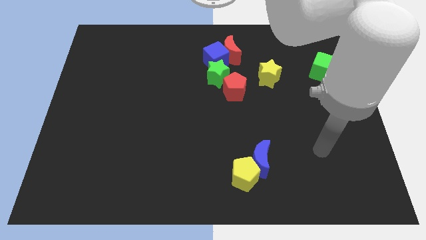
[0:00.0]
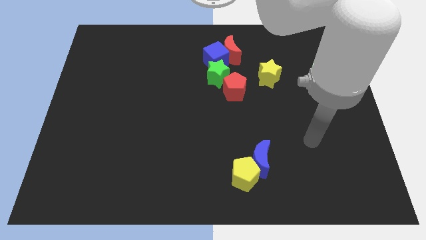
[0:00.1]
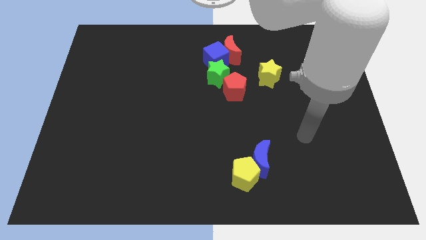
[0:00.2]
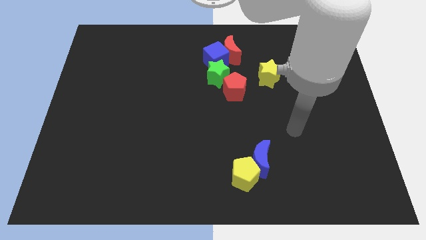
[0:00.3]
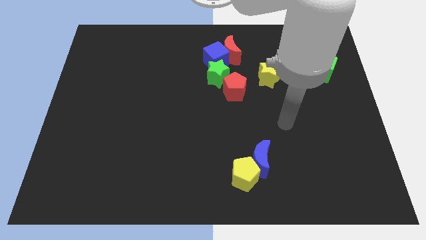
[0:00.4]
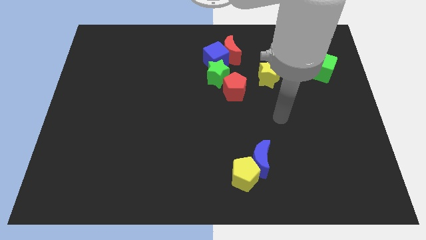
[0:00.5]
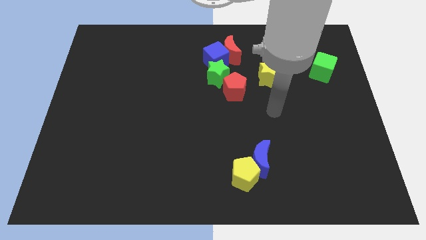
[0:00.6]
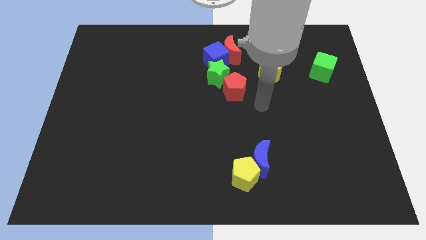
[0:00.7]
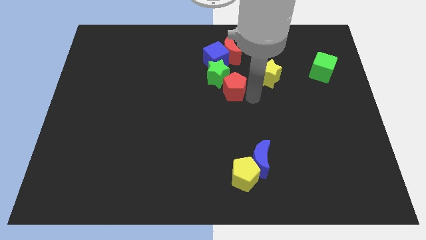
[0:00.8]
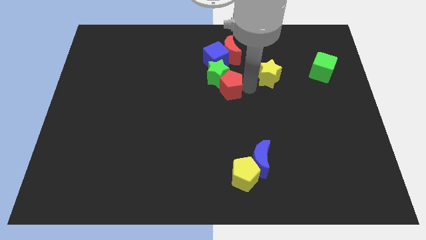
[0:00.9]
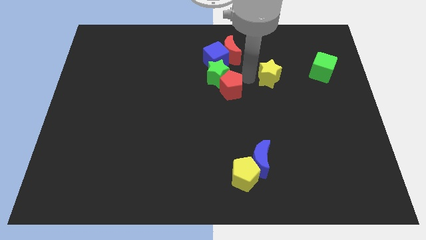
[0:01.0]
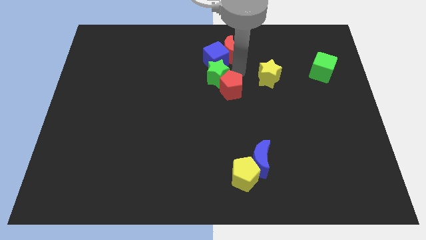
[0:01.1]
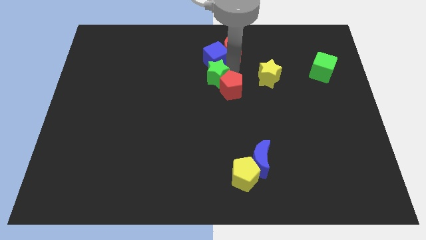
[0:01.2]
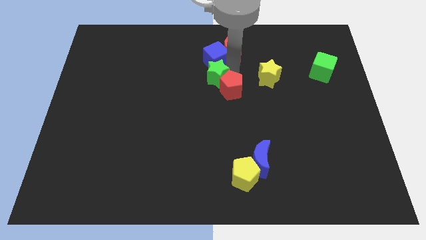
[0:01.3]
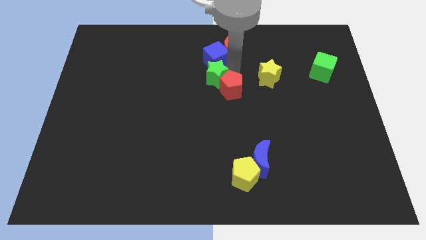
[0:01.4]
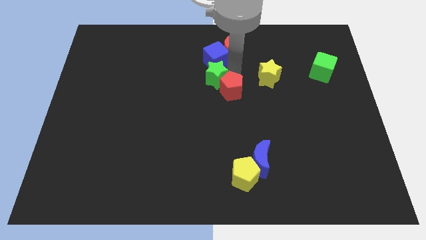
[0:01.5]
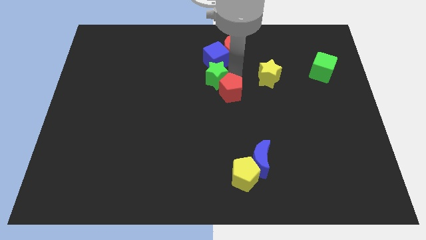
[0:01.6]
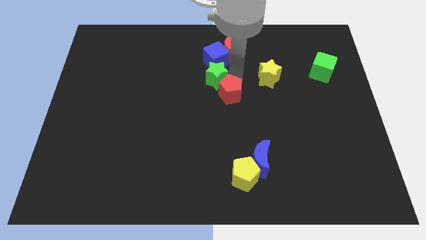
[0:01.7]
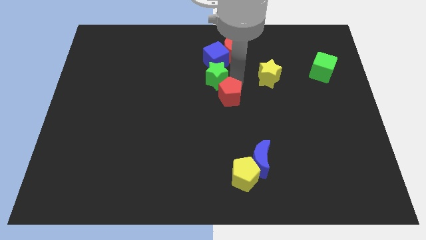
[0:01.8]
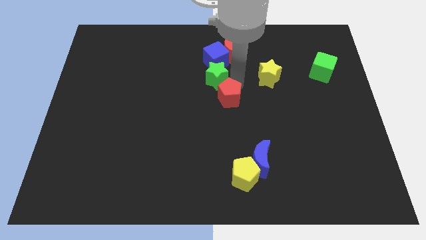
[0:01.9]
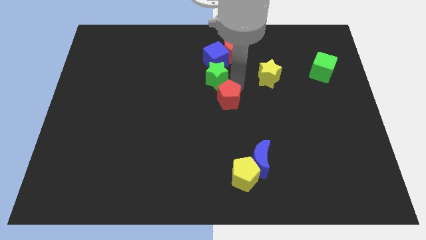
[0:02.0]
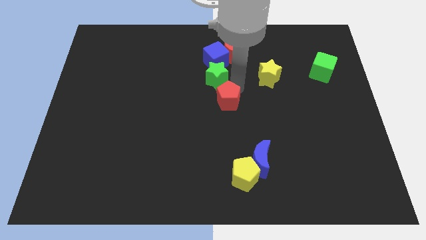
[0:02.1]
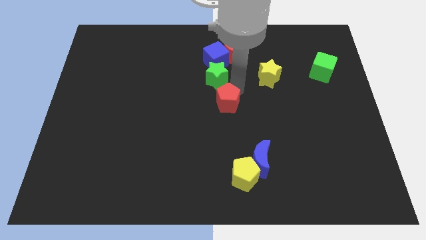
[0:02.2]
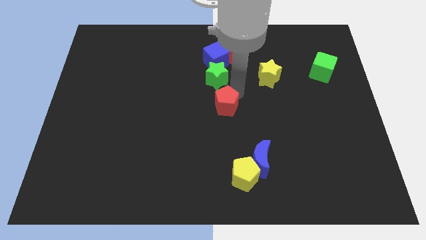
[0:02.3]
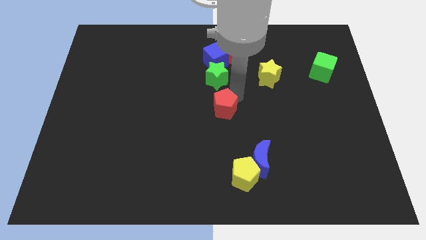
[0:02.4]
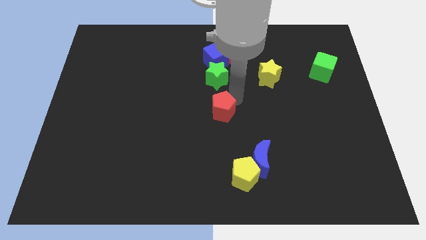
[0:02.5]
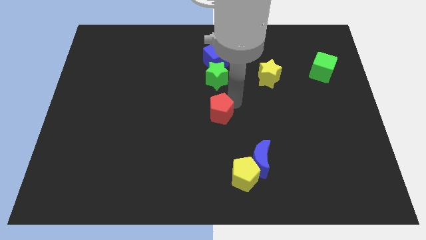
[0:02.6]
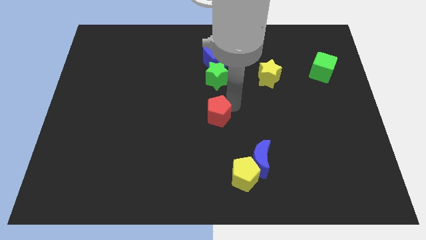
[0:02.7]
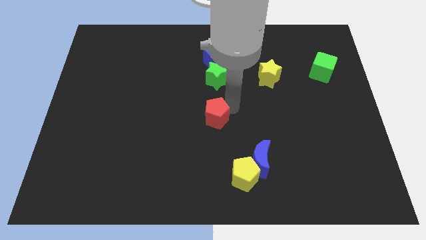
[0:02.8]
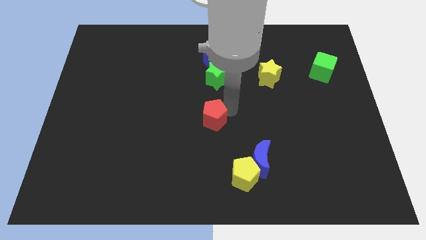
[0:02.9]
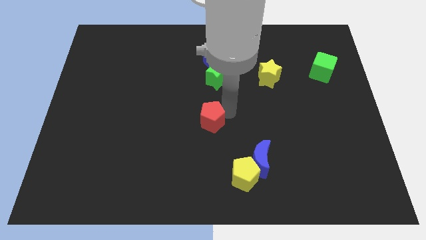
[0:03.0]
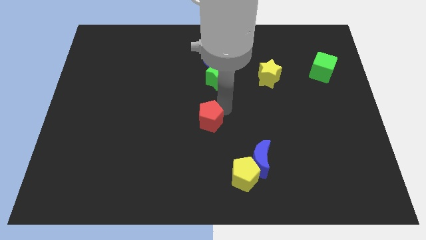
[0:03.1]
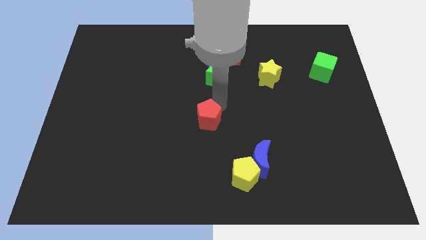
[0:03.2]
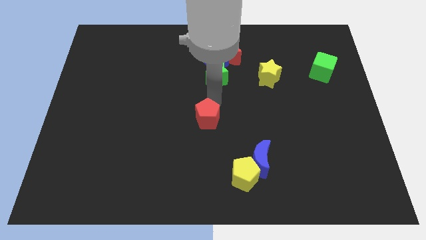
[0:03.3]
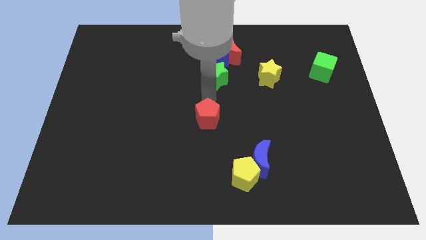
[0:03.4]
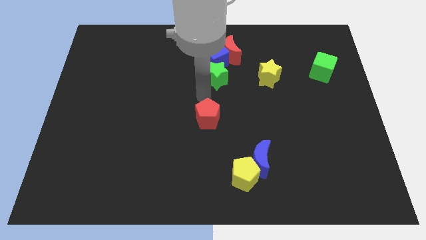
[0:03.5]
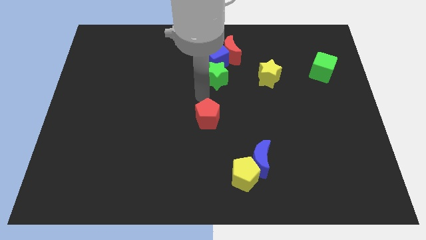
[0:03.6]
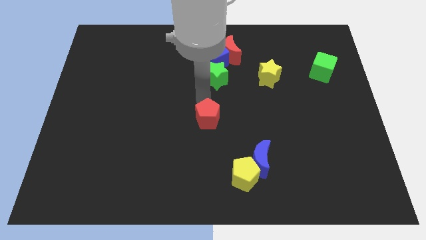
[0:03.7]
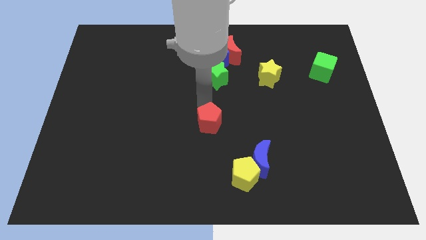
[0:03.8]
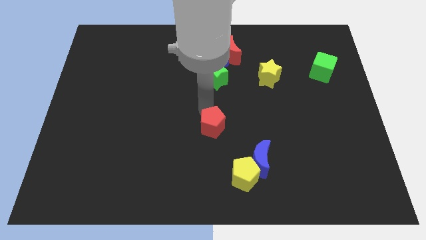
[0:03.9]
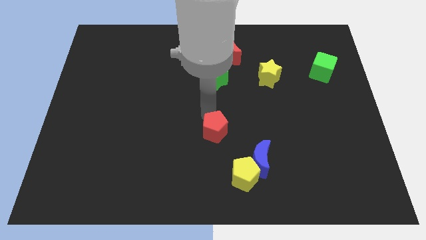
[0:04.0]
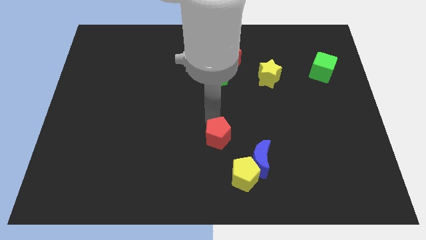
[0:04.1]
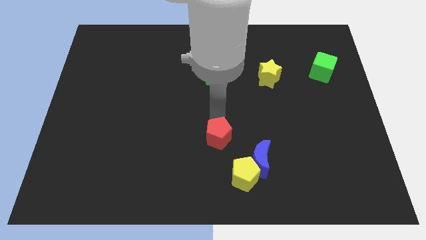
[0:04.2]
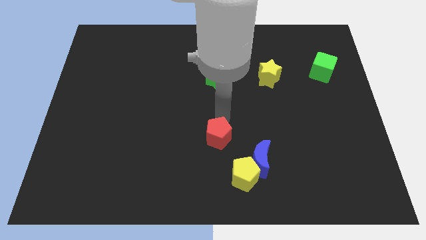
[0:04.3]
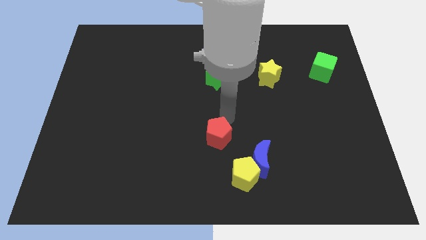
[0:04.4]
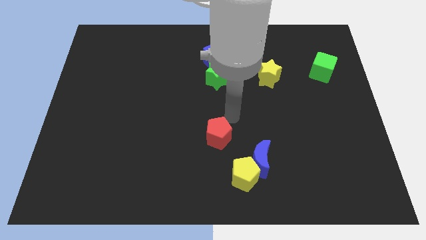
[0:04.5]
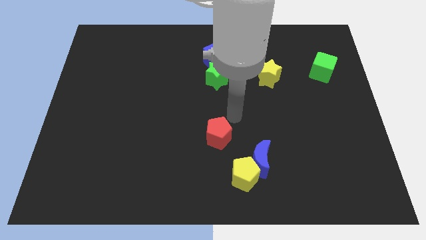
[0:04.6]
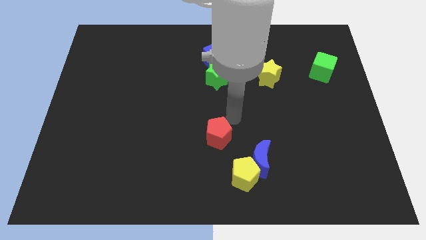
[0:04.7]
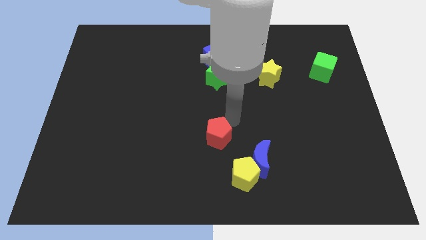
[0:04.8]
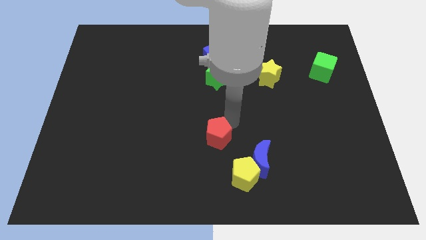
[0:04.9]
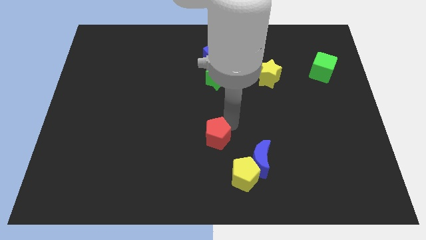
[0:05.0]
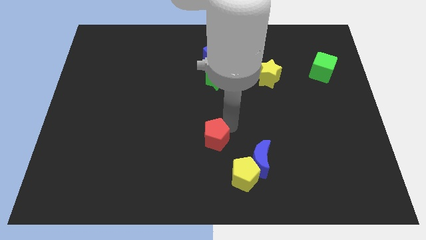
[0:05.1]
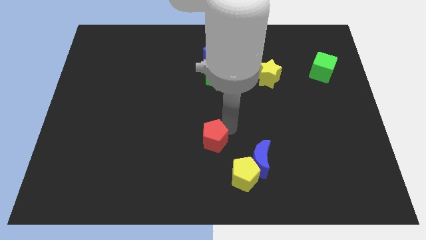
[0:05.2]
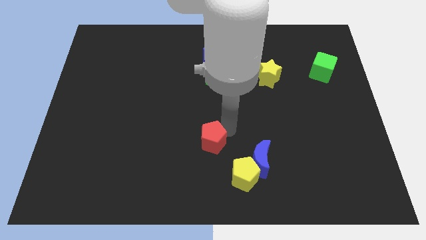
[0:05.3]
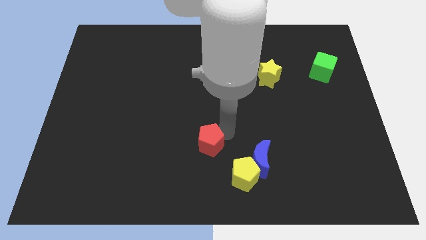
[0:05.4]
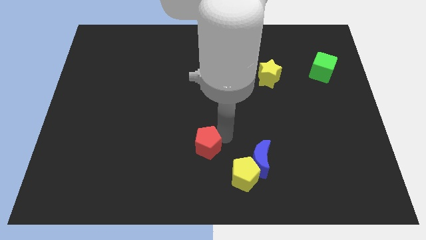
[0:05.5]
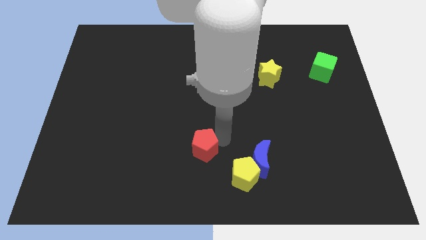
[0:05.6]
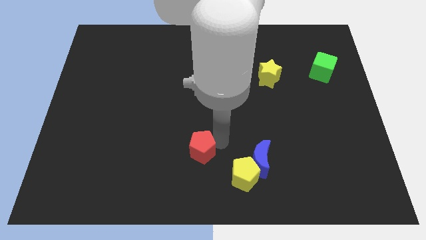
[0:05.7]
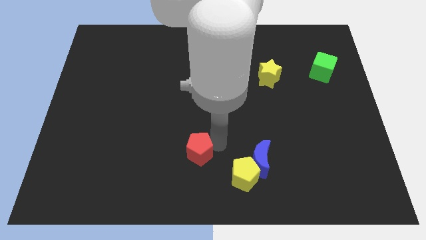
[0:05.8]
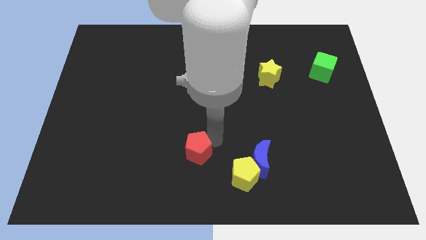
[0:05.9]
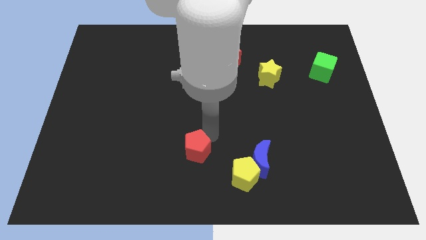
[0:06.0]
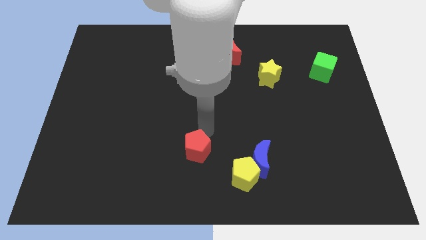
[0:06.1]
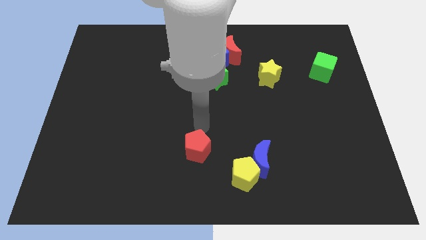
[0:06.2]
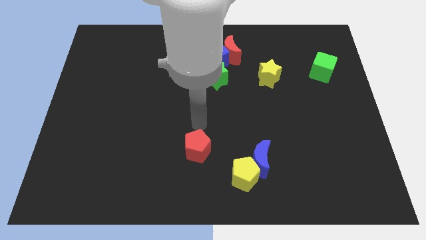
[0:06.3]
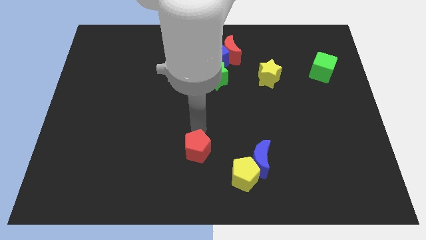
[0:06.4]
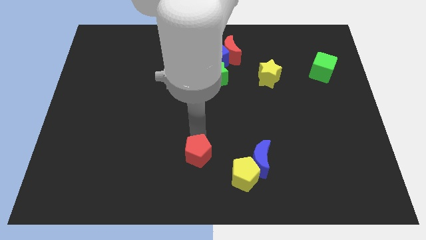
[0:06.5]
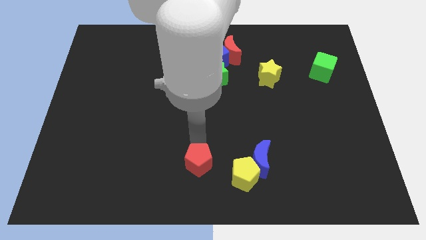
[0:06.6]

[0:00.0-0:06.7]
slide the red pentagon left of the yellow pentagon

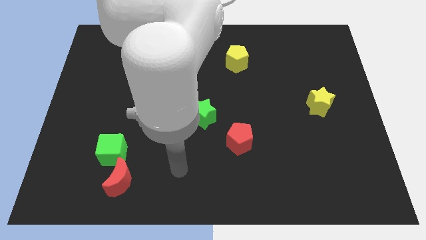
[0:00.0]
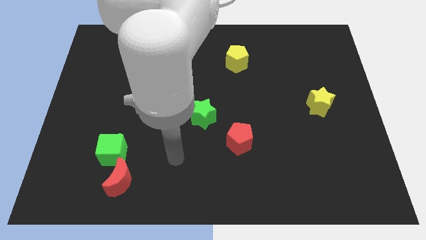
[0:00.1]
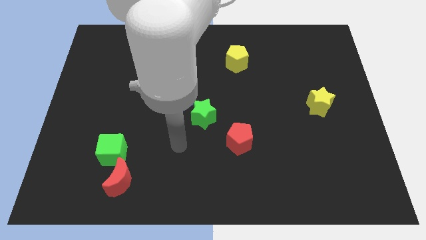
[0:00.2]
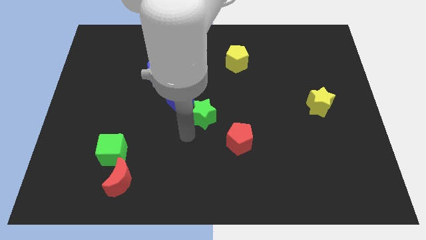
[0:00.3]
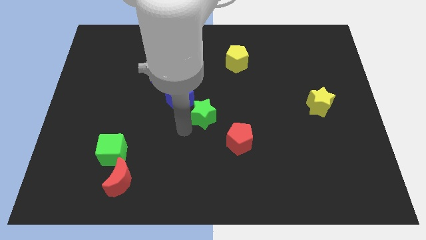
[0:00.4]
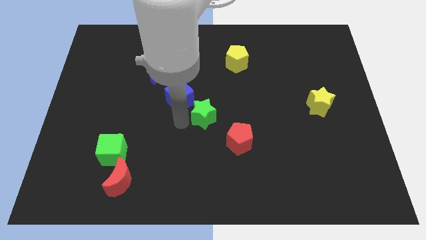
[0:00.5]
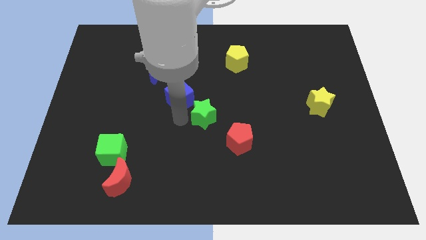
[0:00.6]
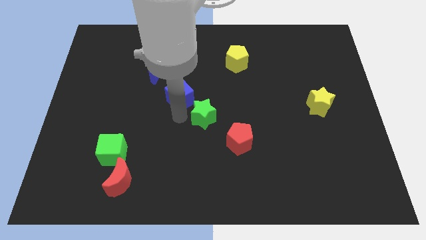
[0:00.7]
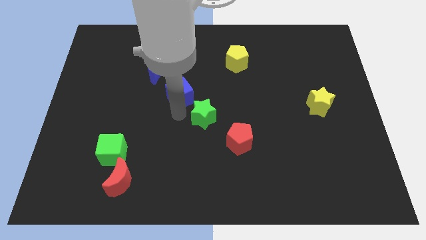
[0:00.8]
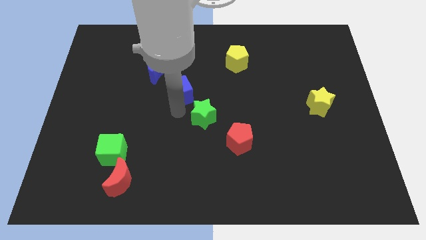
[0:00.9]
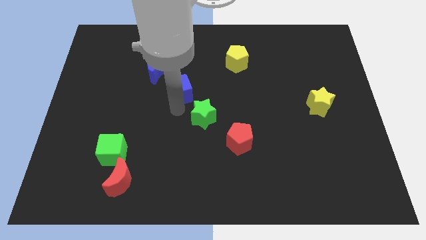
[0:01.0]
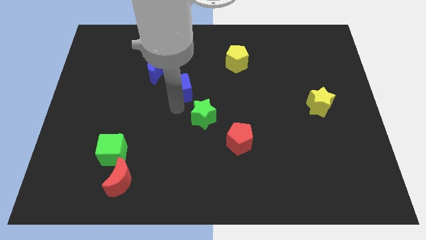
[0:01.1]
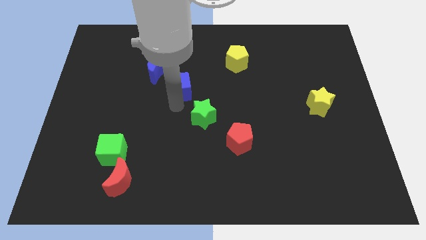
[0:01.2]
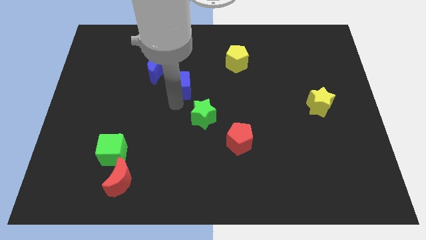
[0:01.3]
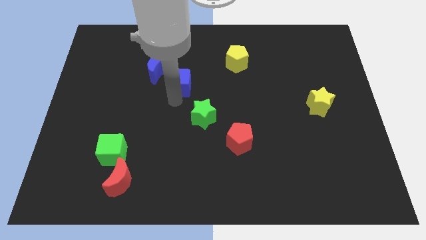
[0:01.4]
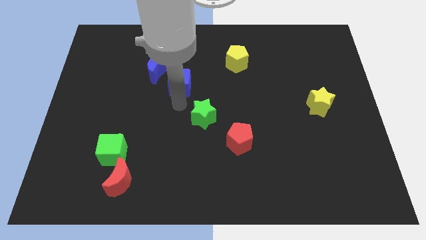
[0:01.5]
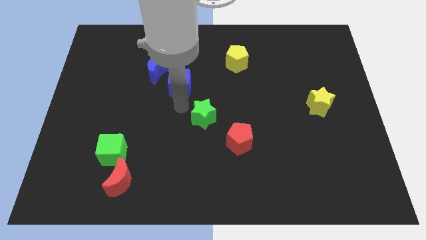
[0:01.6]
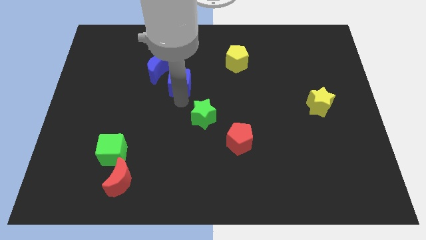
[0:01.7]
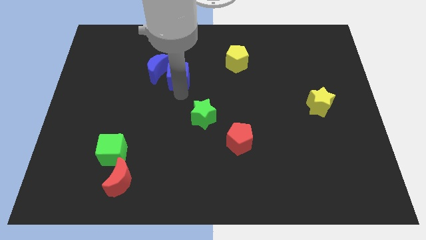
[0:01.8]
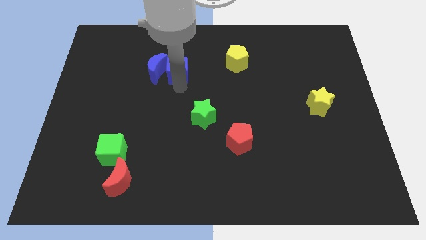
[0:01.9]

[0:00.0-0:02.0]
push the blue cube to the top right side of the blue moon
